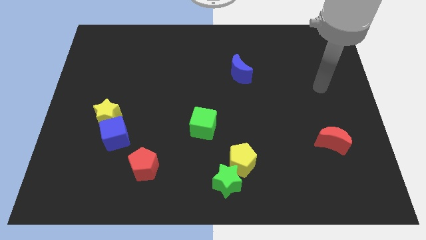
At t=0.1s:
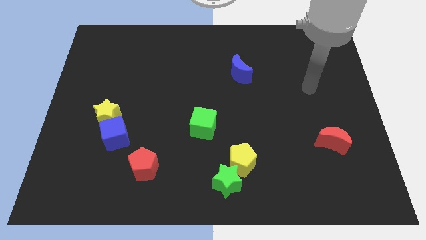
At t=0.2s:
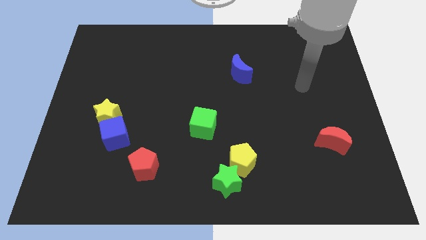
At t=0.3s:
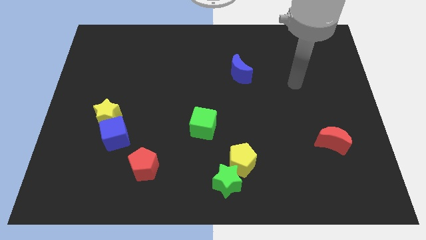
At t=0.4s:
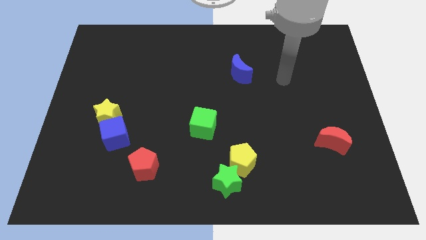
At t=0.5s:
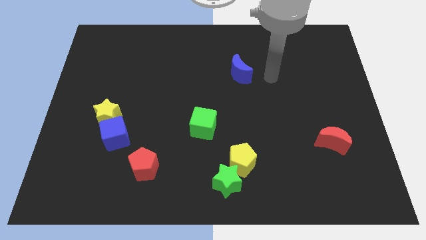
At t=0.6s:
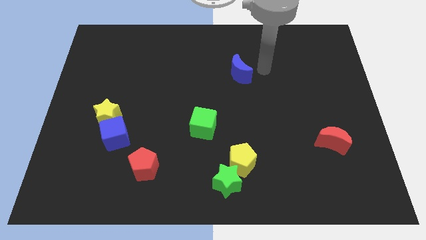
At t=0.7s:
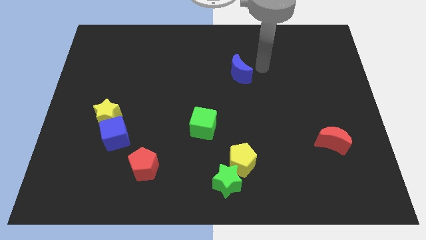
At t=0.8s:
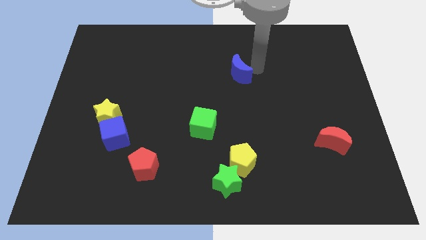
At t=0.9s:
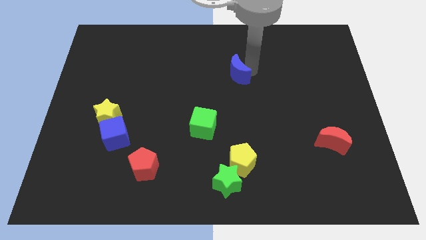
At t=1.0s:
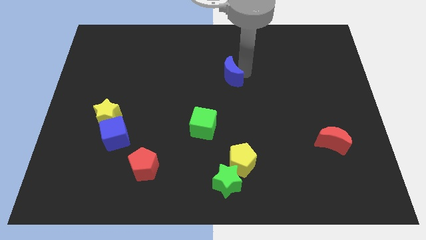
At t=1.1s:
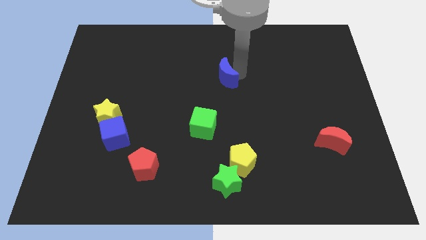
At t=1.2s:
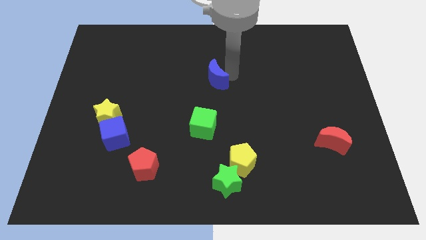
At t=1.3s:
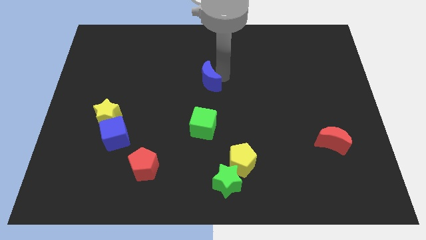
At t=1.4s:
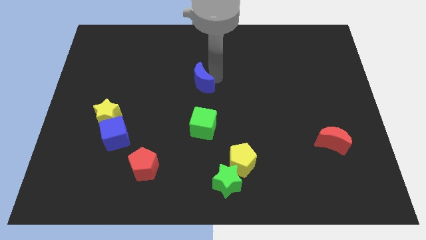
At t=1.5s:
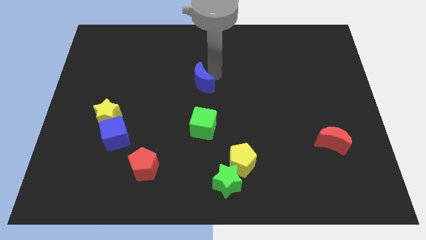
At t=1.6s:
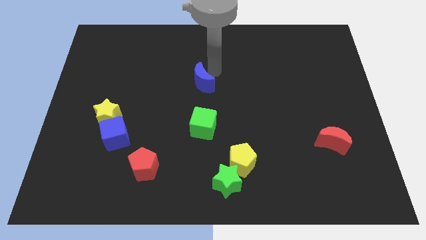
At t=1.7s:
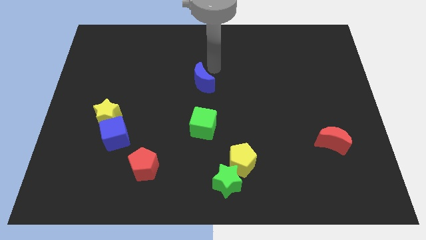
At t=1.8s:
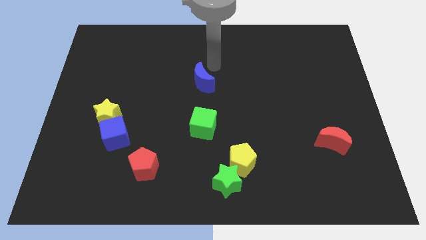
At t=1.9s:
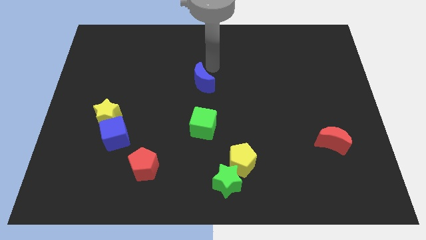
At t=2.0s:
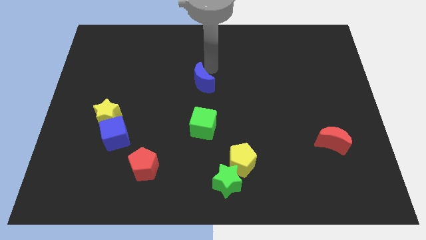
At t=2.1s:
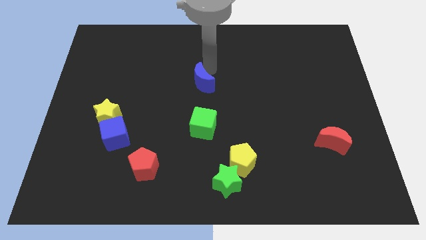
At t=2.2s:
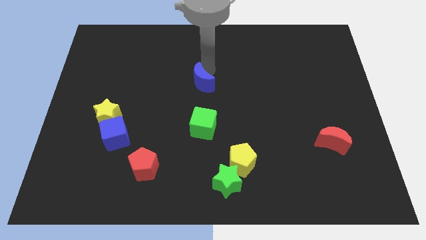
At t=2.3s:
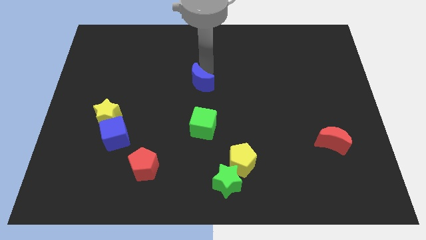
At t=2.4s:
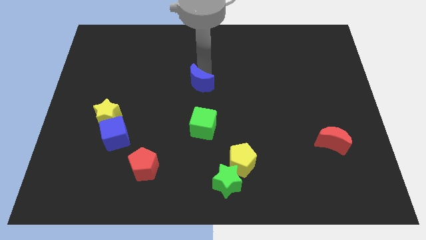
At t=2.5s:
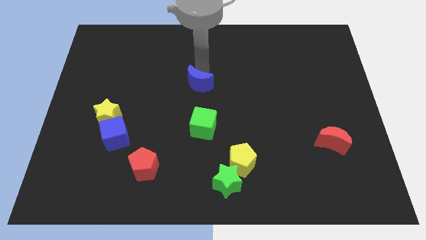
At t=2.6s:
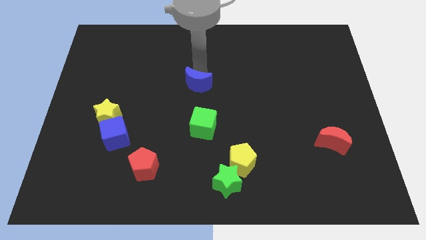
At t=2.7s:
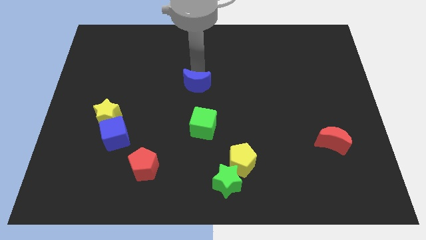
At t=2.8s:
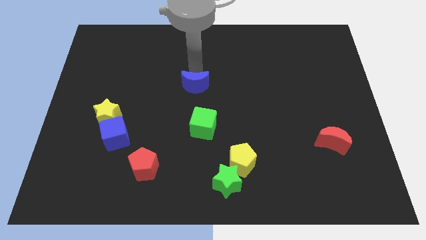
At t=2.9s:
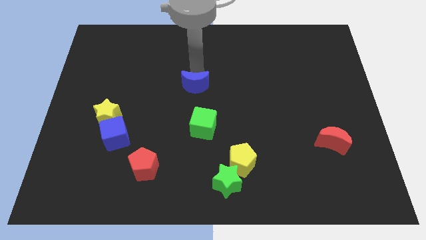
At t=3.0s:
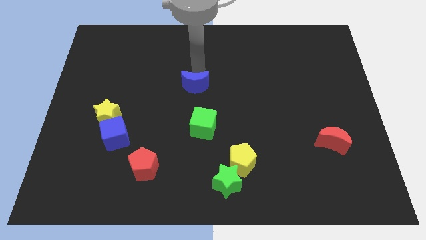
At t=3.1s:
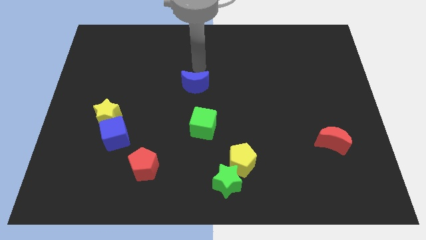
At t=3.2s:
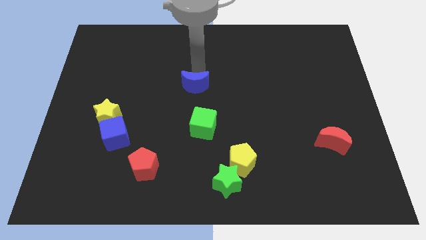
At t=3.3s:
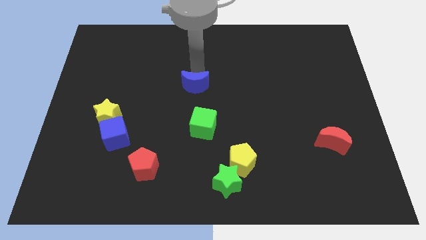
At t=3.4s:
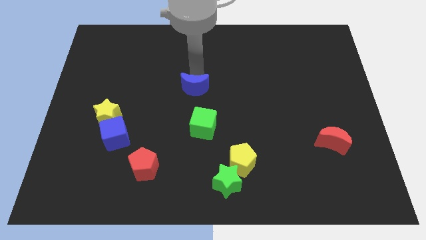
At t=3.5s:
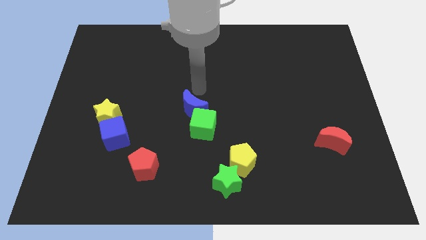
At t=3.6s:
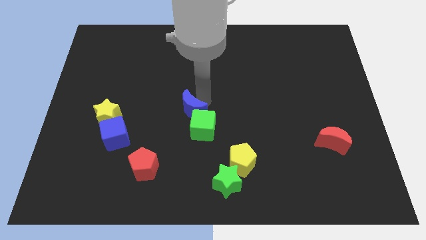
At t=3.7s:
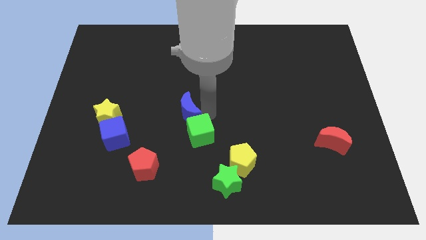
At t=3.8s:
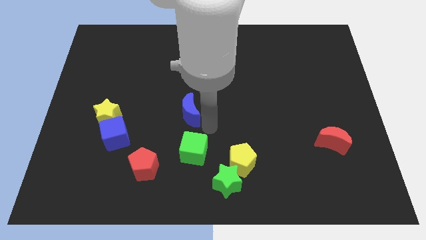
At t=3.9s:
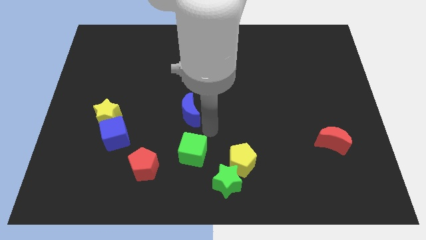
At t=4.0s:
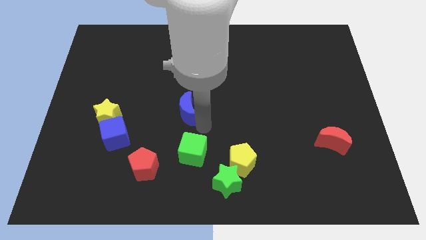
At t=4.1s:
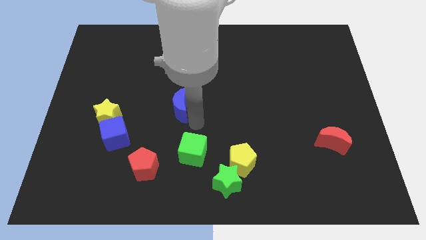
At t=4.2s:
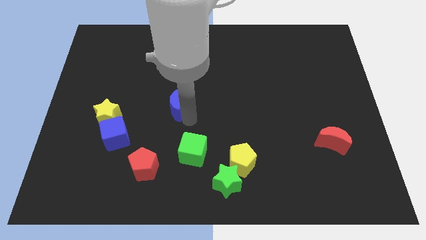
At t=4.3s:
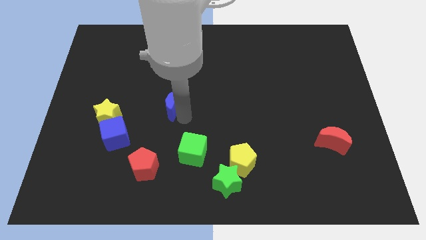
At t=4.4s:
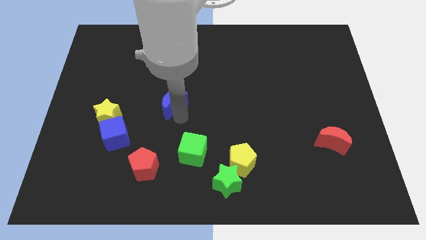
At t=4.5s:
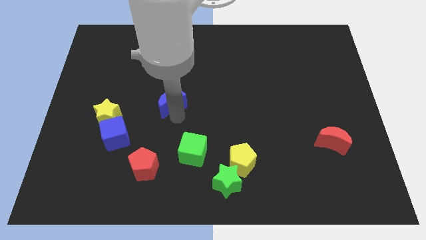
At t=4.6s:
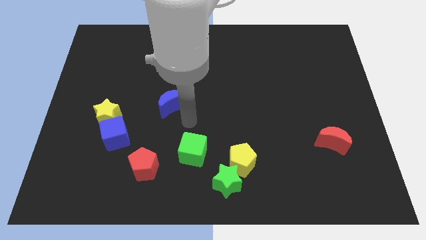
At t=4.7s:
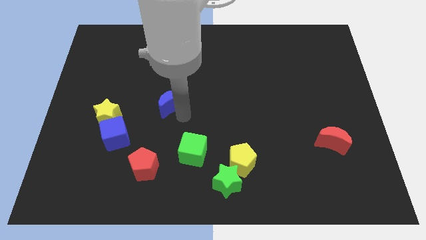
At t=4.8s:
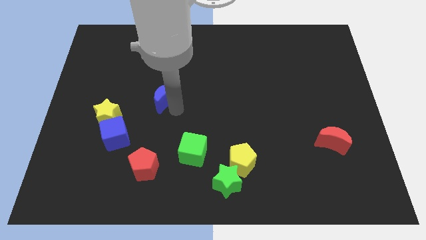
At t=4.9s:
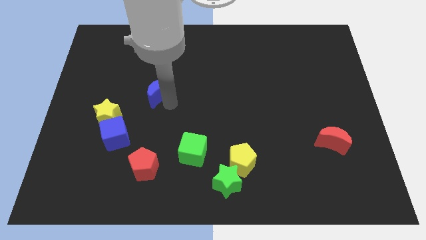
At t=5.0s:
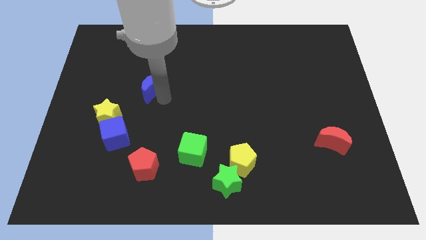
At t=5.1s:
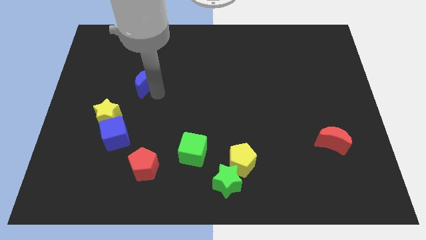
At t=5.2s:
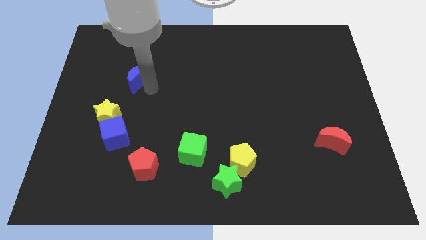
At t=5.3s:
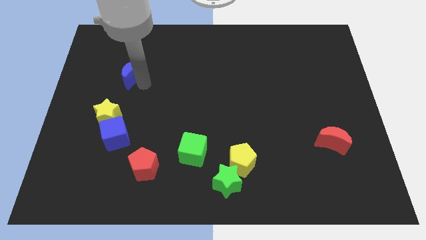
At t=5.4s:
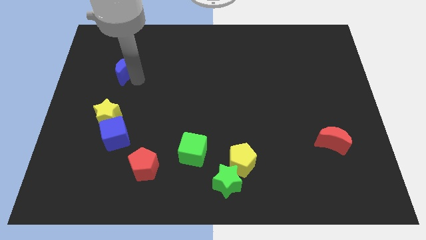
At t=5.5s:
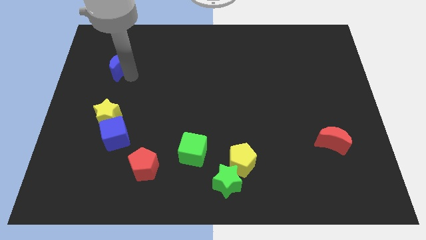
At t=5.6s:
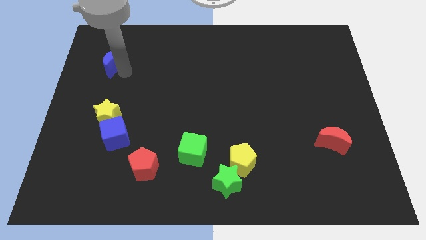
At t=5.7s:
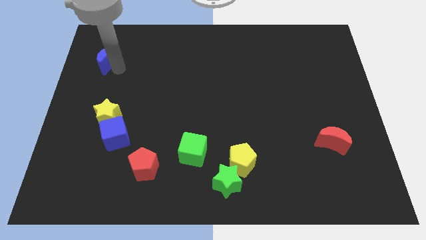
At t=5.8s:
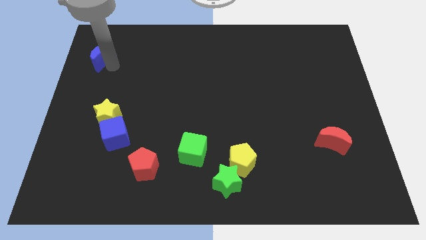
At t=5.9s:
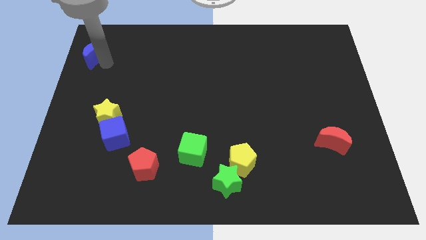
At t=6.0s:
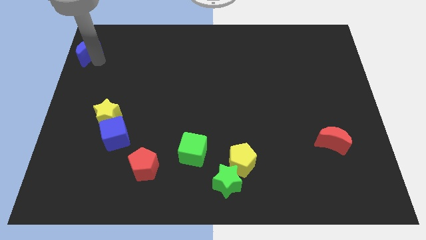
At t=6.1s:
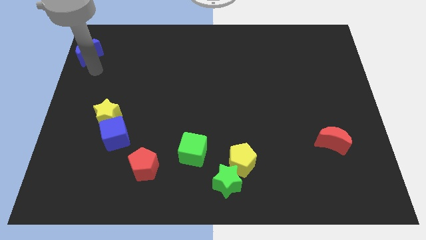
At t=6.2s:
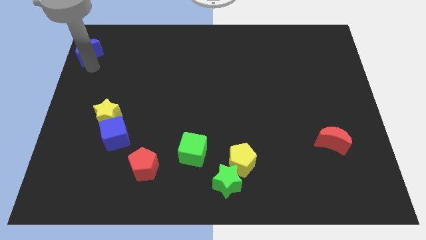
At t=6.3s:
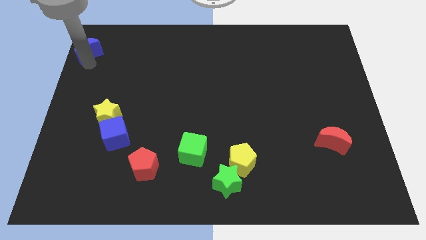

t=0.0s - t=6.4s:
push the blue moon to the top left

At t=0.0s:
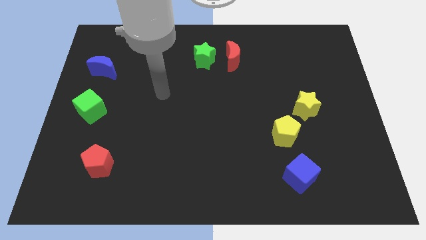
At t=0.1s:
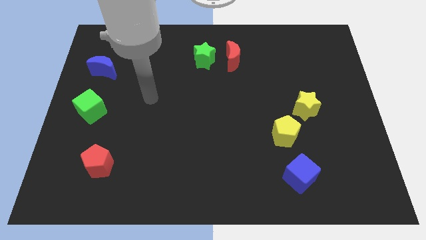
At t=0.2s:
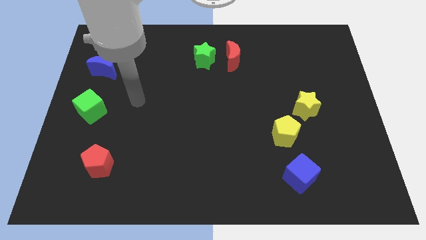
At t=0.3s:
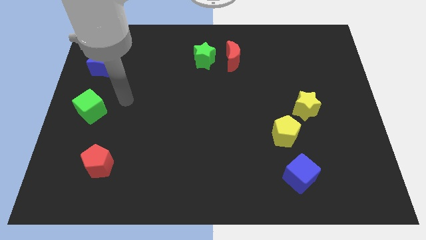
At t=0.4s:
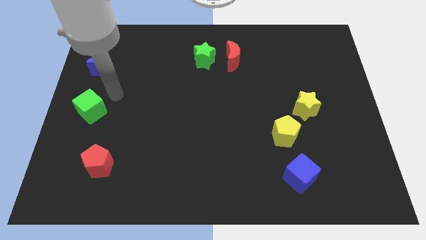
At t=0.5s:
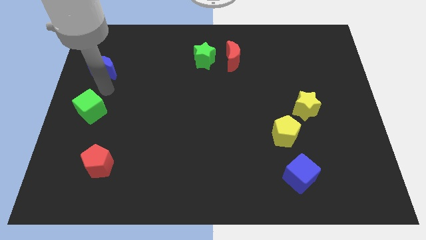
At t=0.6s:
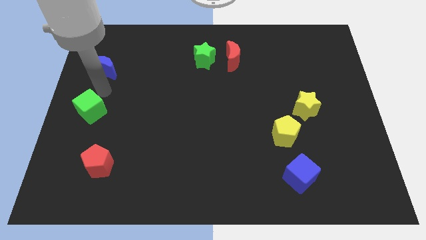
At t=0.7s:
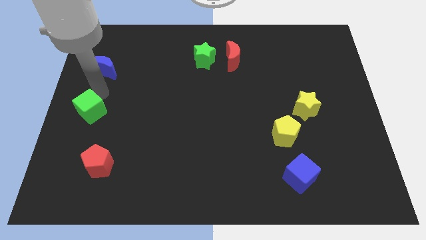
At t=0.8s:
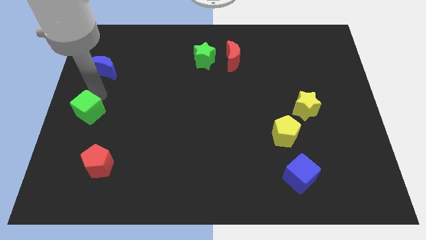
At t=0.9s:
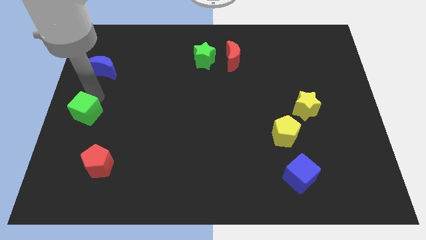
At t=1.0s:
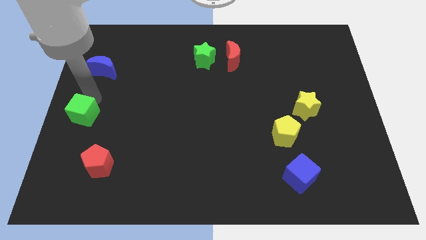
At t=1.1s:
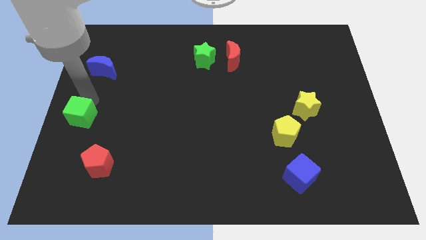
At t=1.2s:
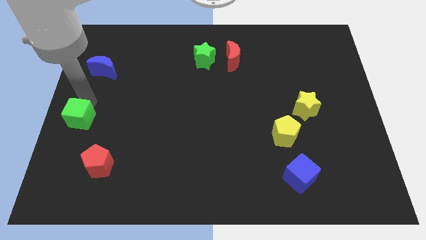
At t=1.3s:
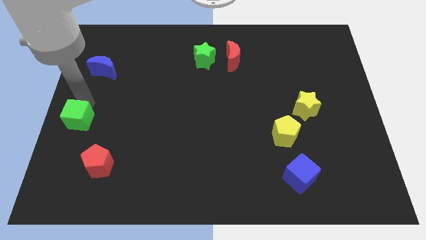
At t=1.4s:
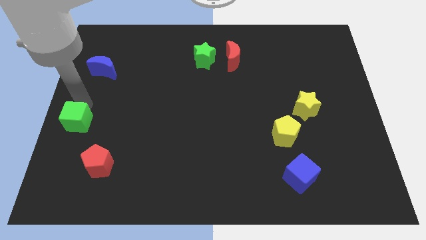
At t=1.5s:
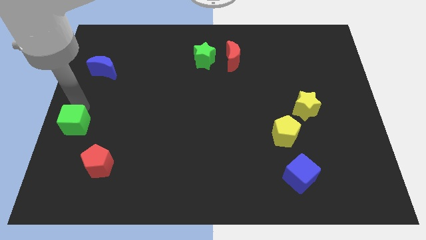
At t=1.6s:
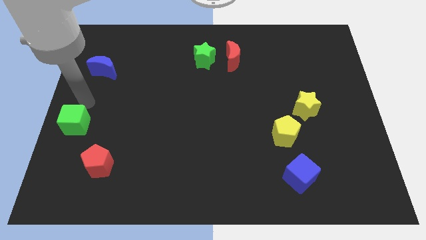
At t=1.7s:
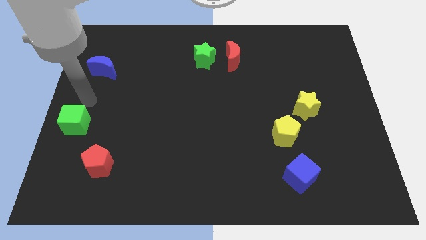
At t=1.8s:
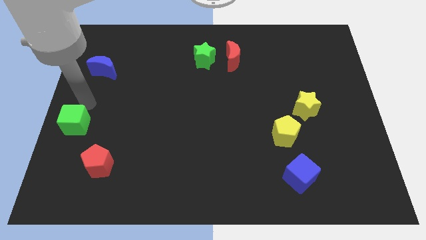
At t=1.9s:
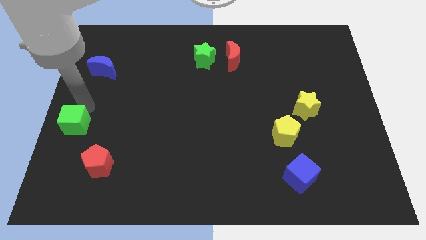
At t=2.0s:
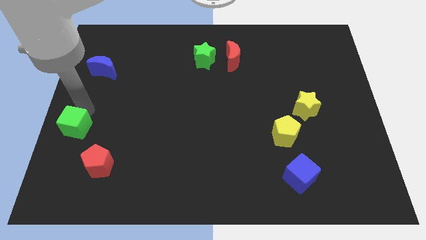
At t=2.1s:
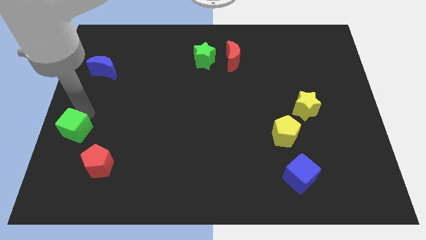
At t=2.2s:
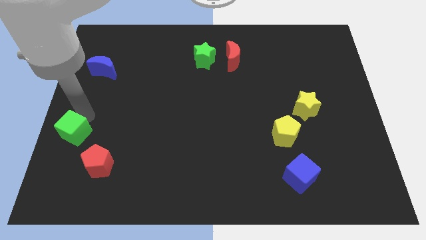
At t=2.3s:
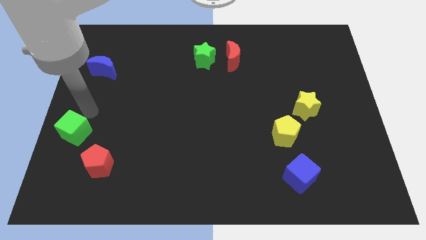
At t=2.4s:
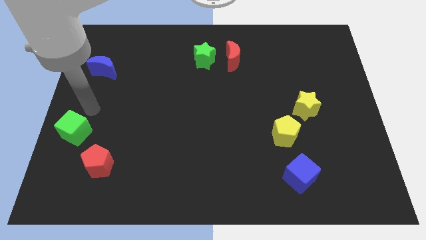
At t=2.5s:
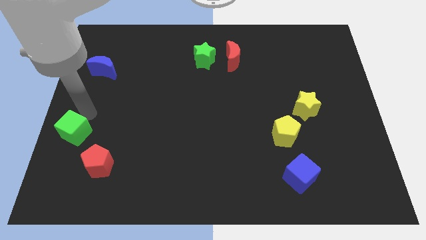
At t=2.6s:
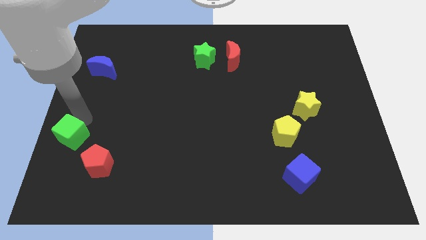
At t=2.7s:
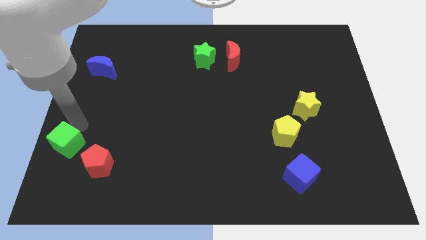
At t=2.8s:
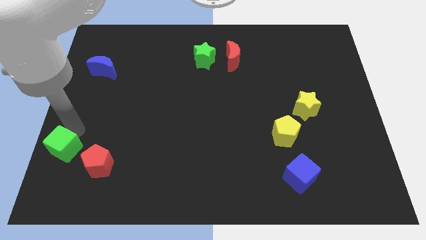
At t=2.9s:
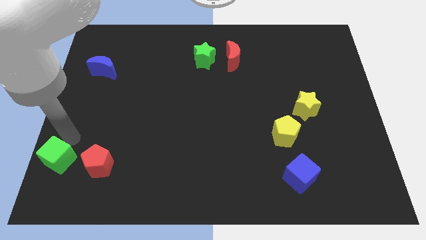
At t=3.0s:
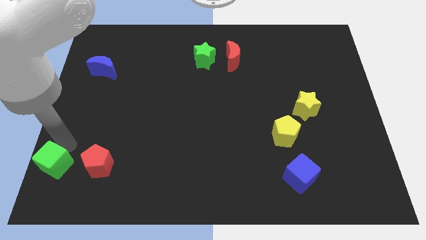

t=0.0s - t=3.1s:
push the green cube to the bottom left of the board
